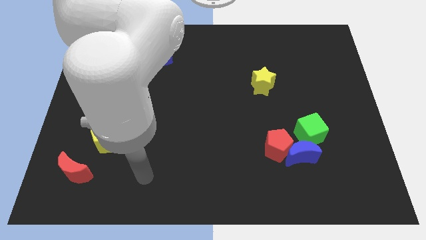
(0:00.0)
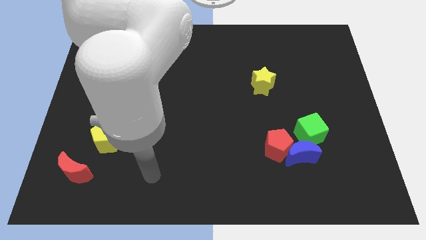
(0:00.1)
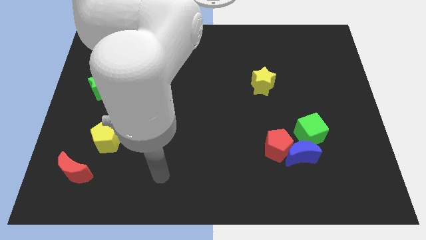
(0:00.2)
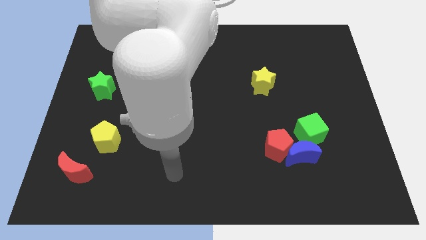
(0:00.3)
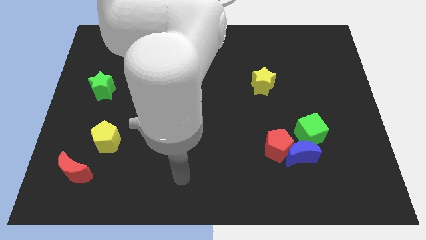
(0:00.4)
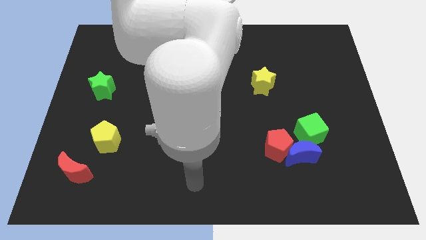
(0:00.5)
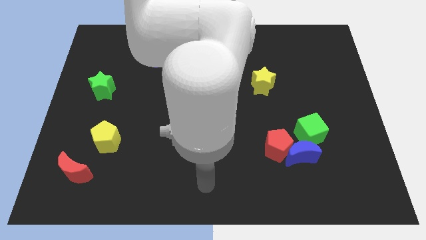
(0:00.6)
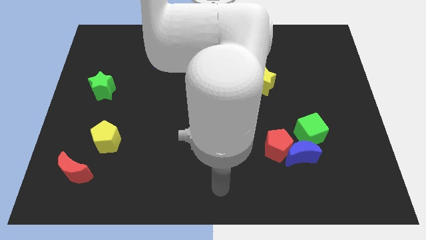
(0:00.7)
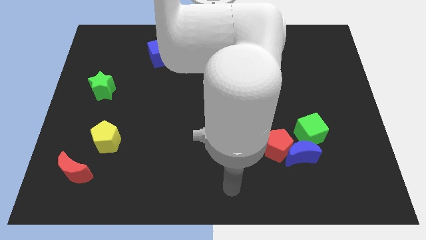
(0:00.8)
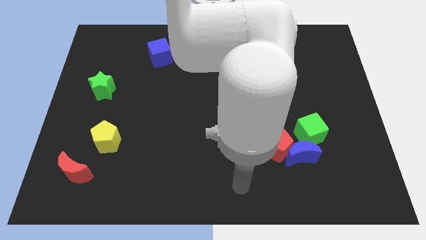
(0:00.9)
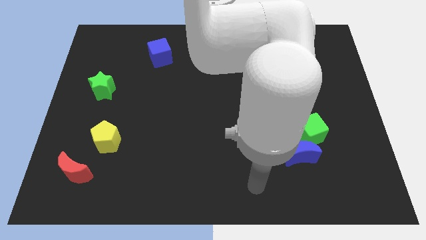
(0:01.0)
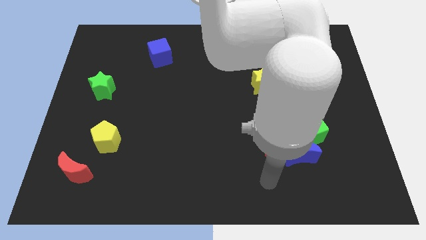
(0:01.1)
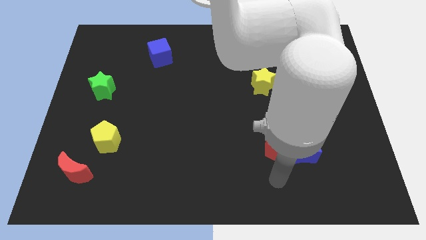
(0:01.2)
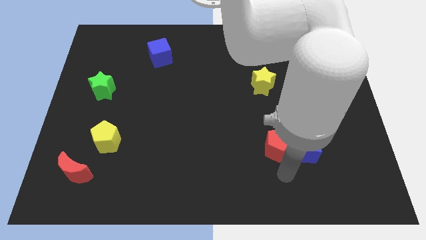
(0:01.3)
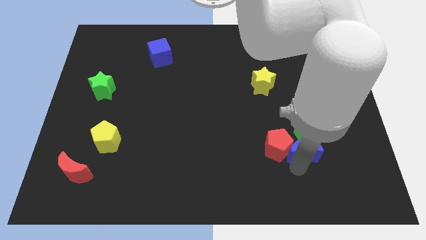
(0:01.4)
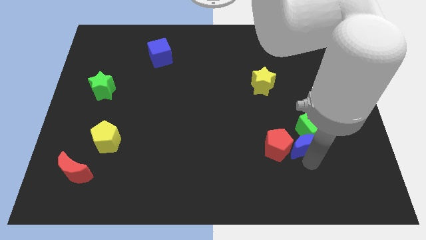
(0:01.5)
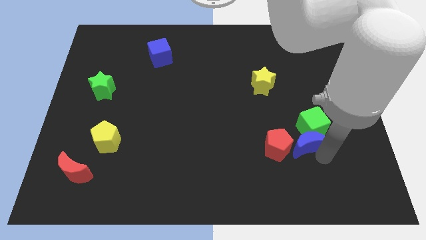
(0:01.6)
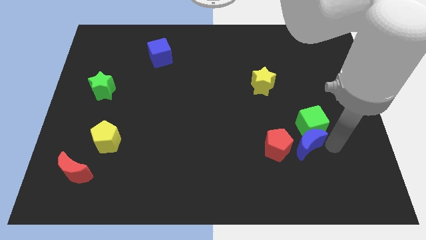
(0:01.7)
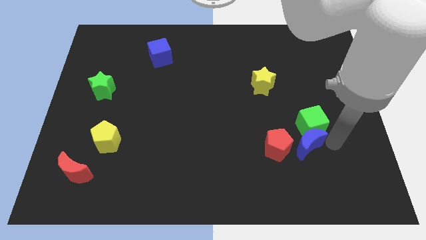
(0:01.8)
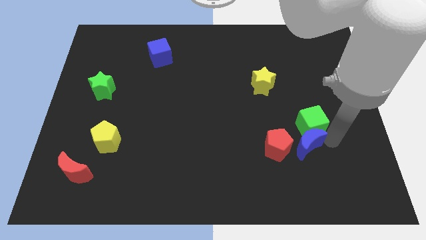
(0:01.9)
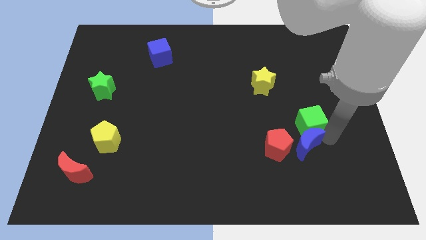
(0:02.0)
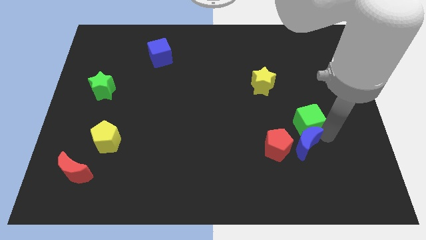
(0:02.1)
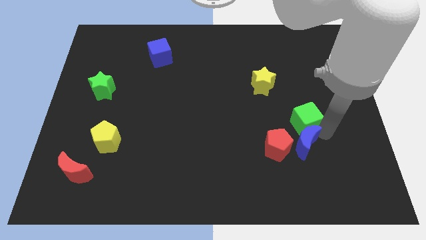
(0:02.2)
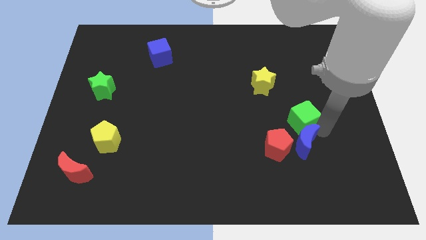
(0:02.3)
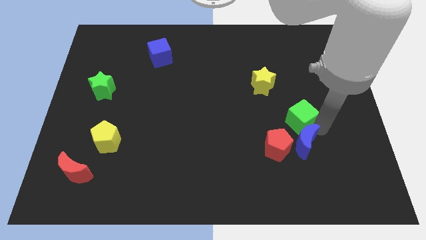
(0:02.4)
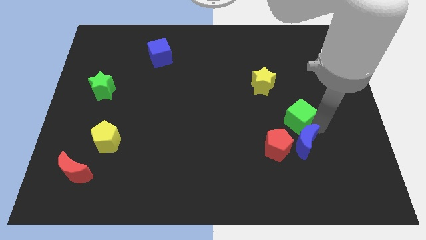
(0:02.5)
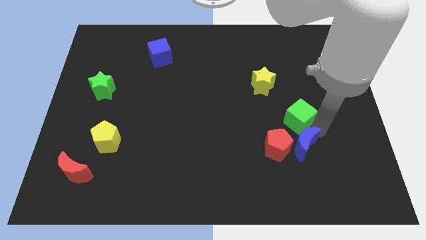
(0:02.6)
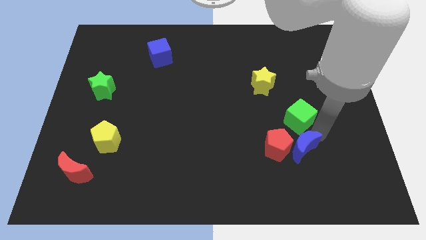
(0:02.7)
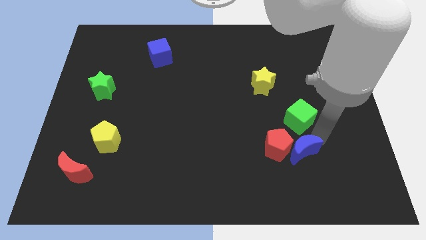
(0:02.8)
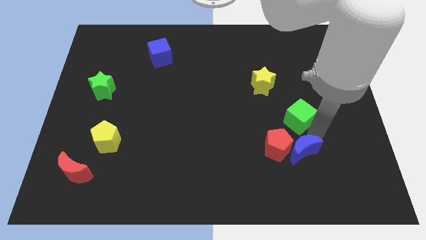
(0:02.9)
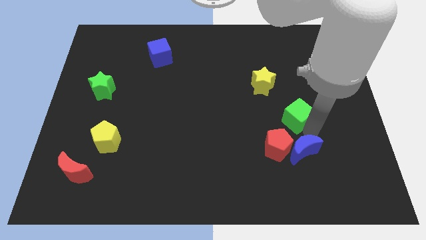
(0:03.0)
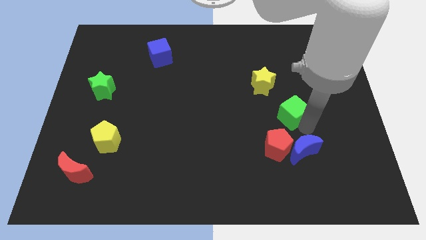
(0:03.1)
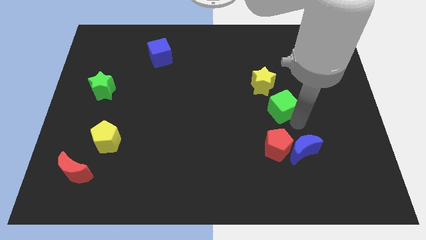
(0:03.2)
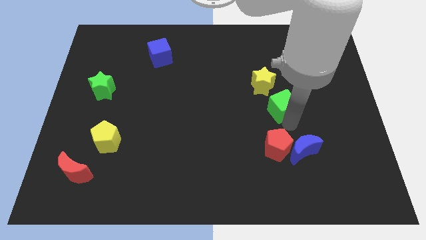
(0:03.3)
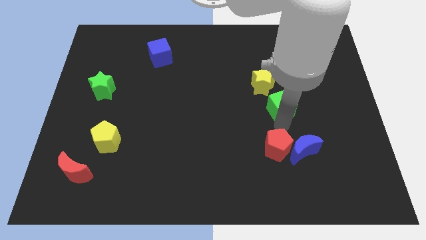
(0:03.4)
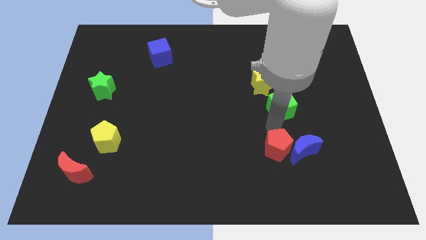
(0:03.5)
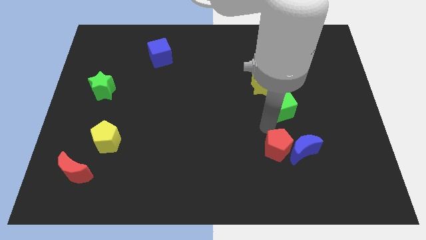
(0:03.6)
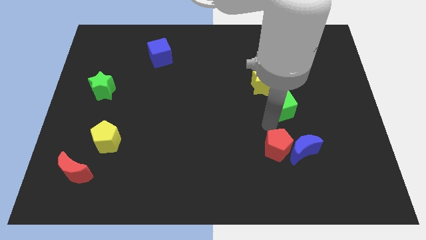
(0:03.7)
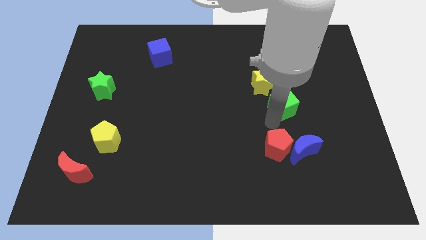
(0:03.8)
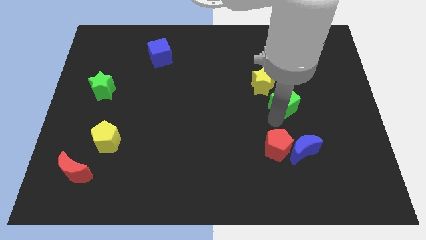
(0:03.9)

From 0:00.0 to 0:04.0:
move the green cube slightly up

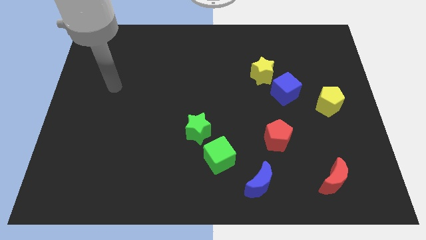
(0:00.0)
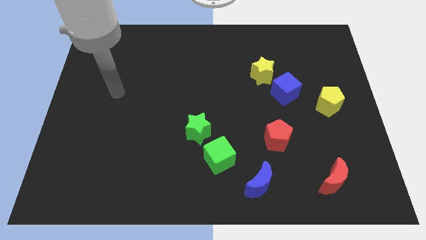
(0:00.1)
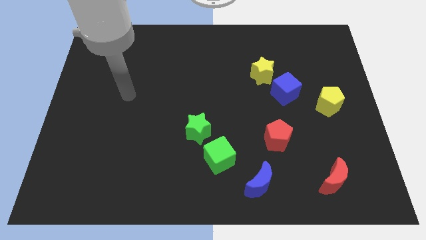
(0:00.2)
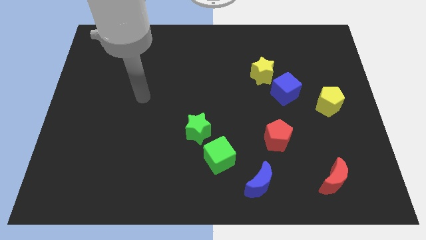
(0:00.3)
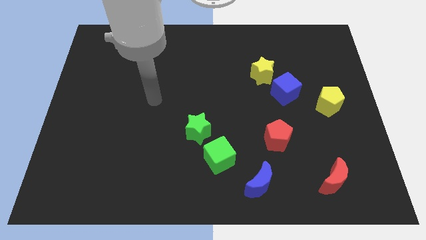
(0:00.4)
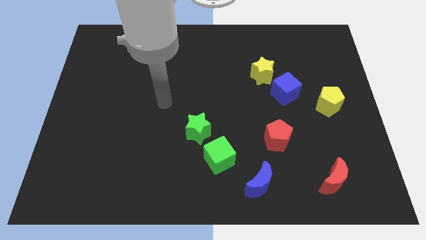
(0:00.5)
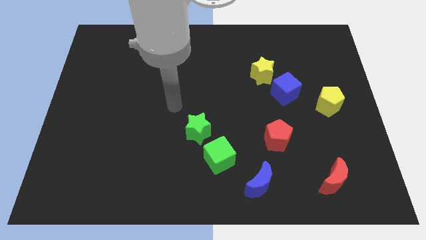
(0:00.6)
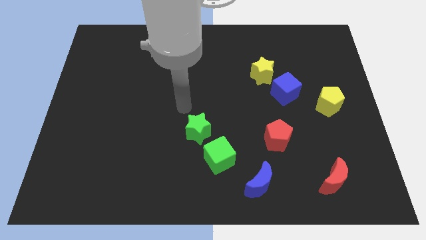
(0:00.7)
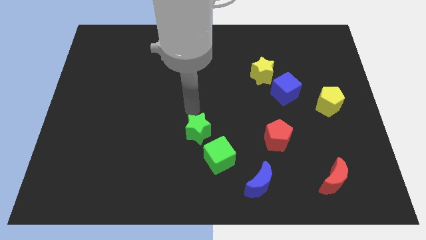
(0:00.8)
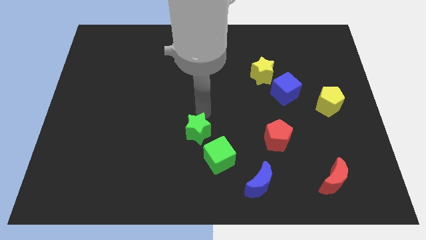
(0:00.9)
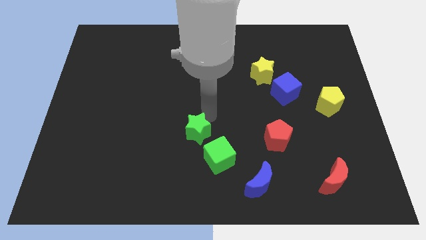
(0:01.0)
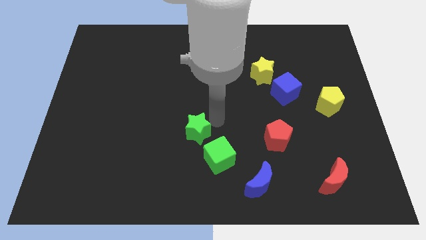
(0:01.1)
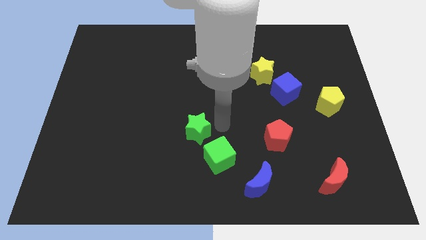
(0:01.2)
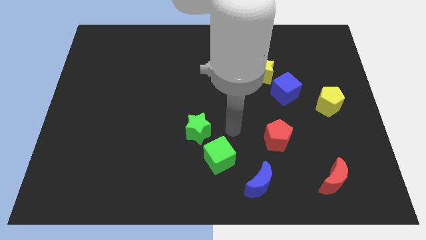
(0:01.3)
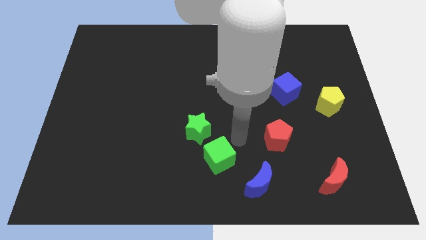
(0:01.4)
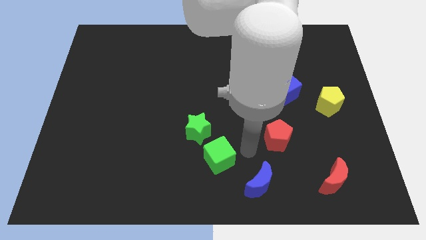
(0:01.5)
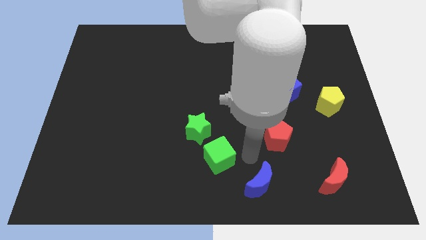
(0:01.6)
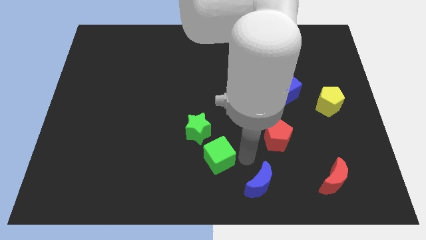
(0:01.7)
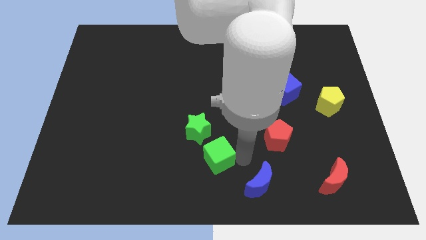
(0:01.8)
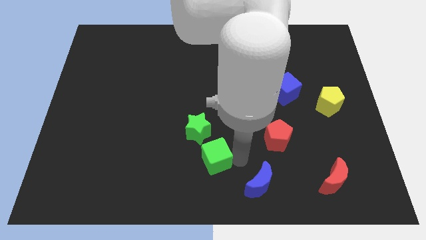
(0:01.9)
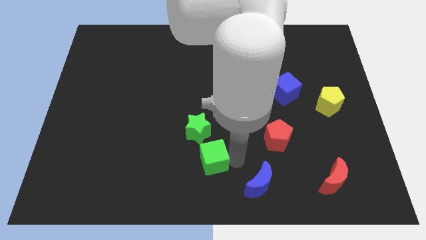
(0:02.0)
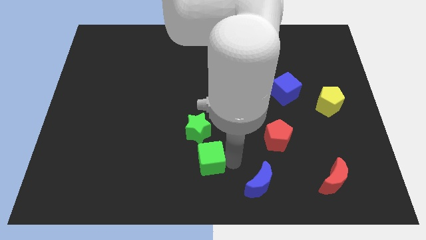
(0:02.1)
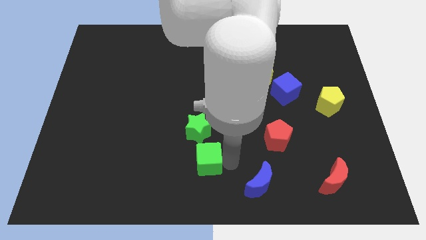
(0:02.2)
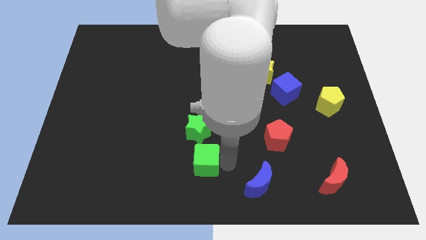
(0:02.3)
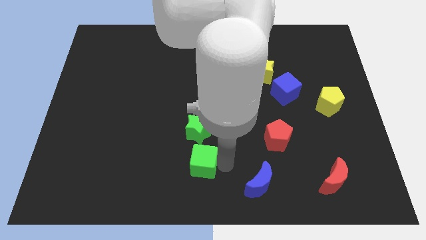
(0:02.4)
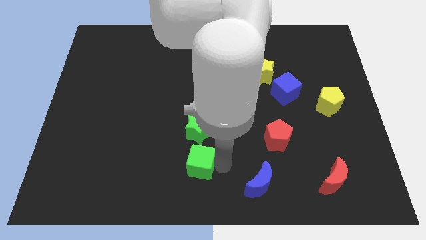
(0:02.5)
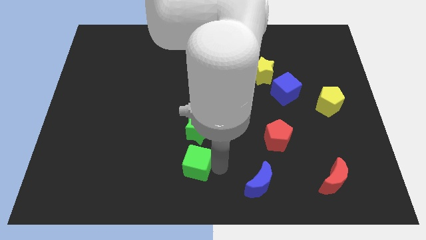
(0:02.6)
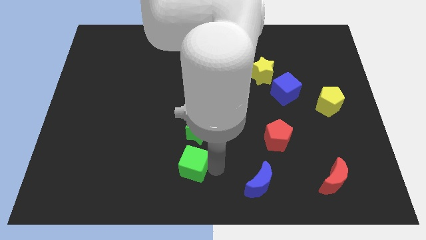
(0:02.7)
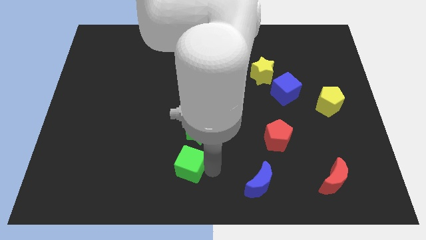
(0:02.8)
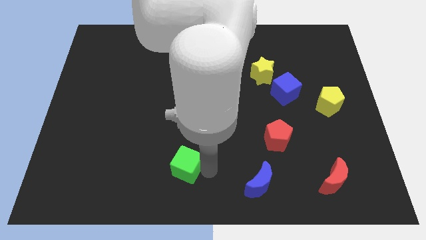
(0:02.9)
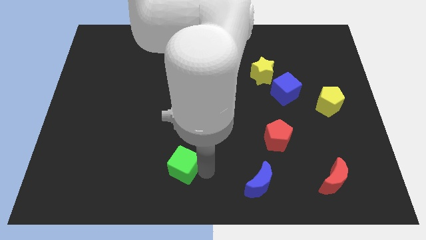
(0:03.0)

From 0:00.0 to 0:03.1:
slightly push the green cube to the left

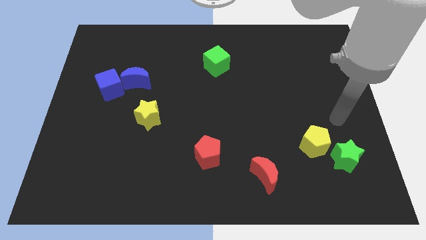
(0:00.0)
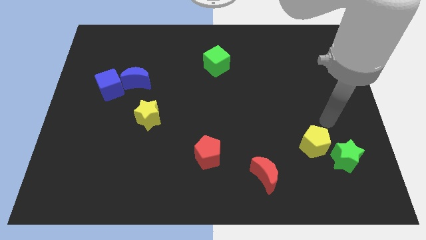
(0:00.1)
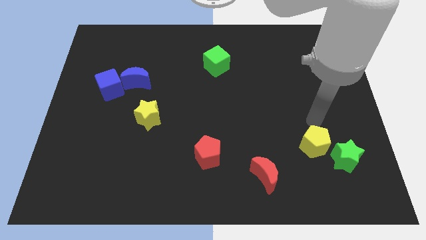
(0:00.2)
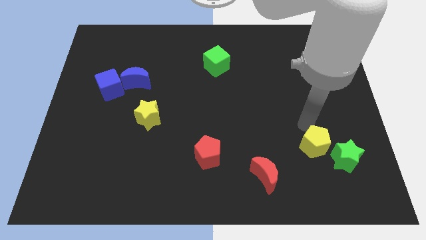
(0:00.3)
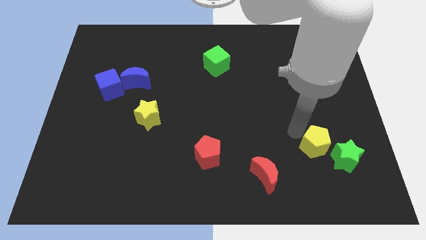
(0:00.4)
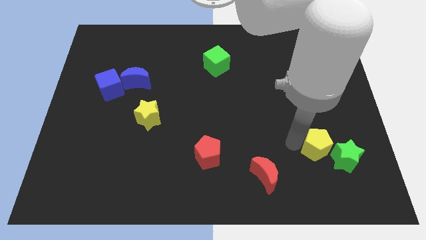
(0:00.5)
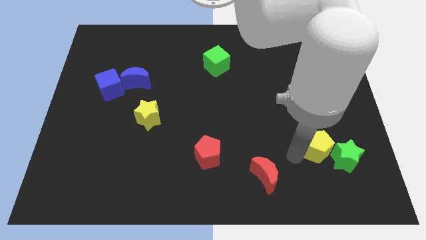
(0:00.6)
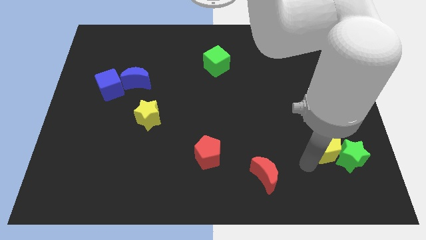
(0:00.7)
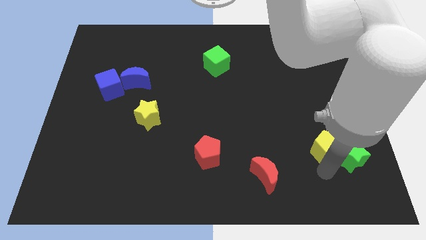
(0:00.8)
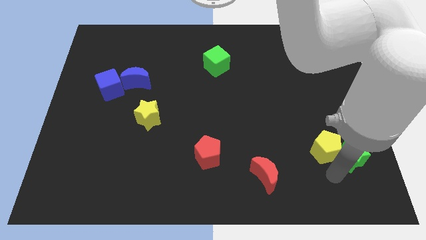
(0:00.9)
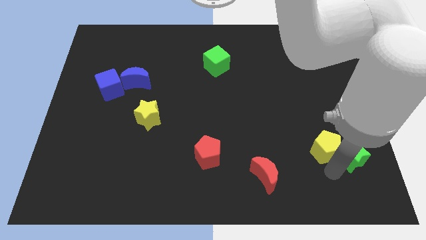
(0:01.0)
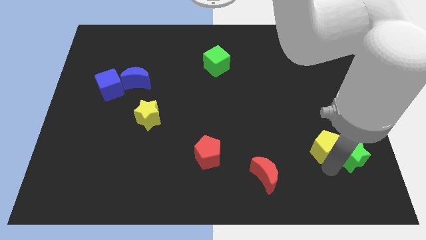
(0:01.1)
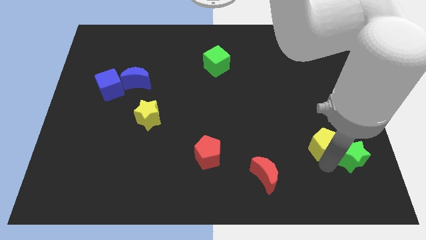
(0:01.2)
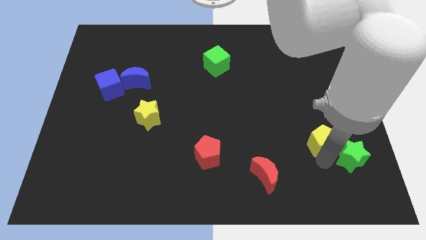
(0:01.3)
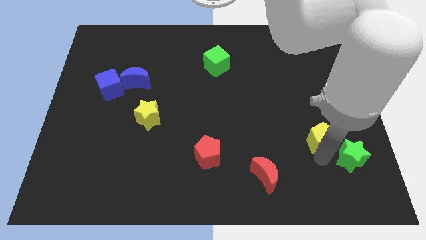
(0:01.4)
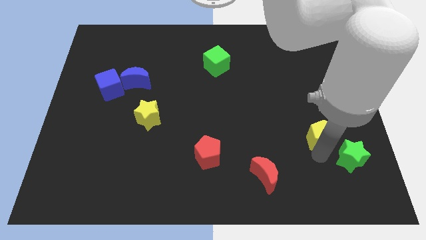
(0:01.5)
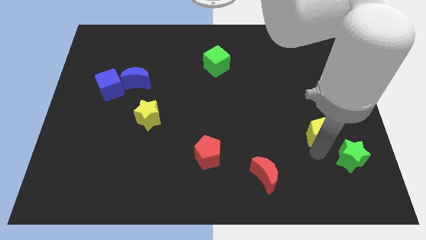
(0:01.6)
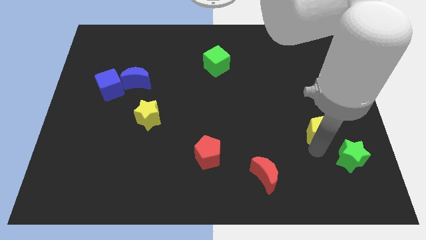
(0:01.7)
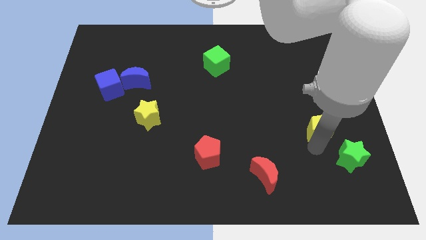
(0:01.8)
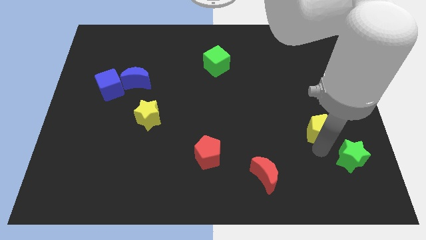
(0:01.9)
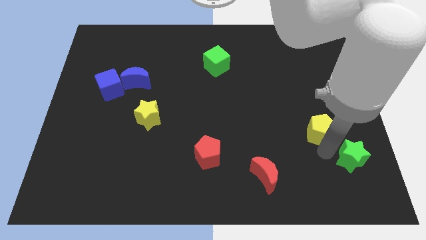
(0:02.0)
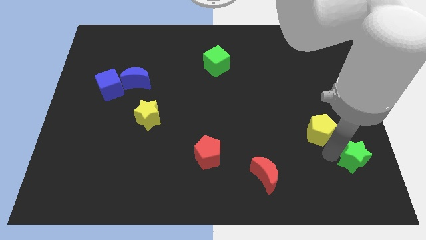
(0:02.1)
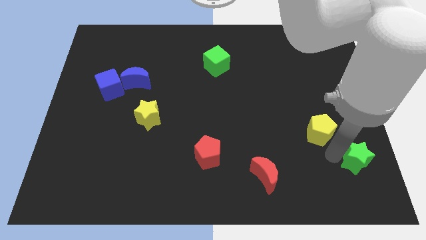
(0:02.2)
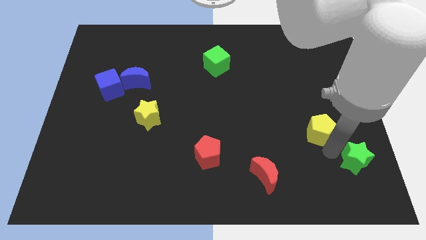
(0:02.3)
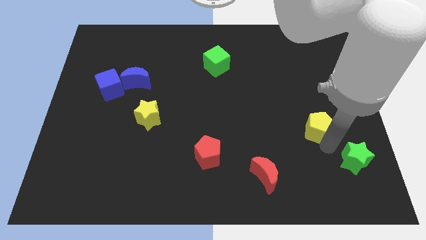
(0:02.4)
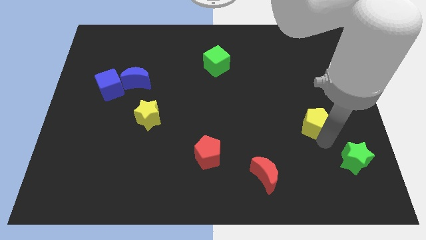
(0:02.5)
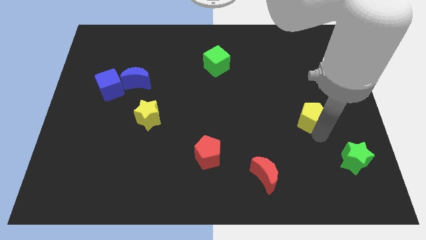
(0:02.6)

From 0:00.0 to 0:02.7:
slightly push the yellow pentagon upwards
